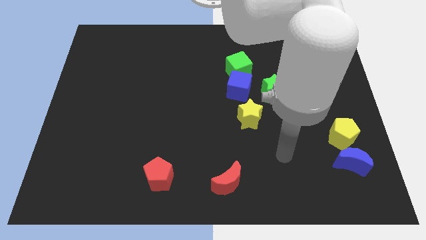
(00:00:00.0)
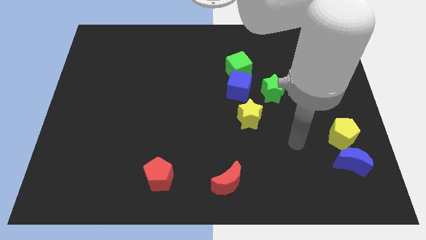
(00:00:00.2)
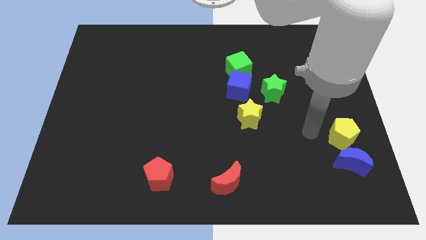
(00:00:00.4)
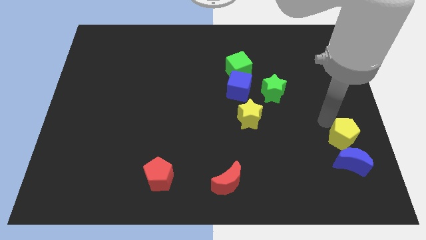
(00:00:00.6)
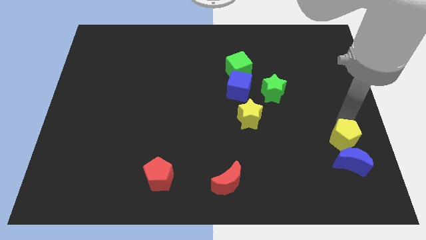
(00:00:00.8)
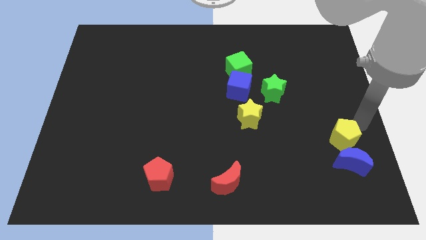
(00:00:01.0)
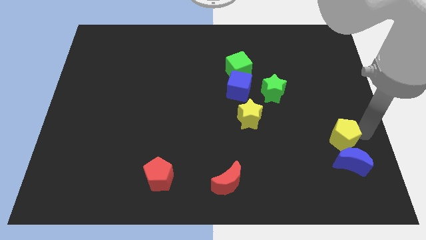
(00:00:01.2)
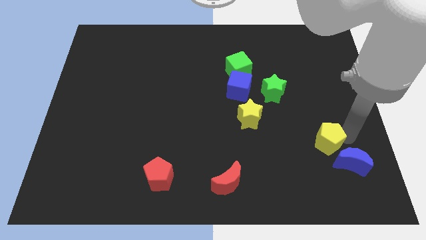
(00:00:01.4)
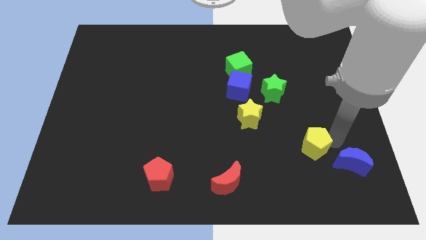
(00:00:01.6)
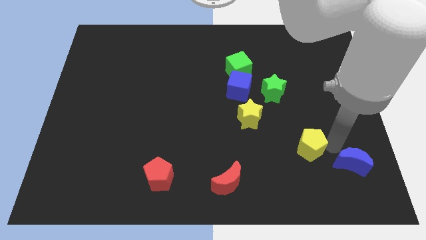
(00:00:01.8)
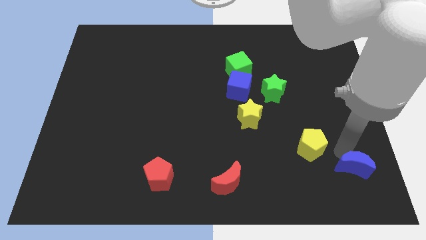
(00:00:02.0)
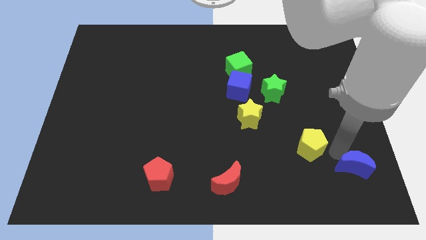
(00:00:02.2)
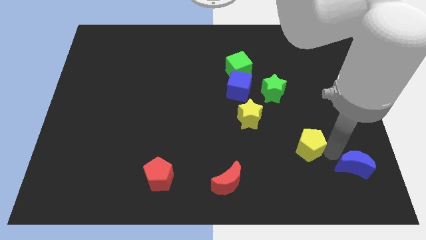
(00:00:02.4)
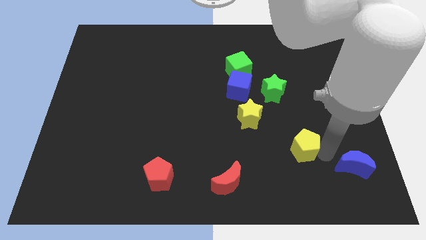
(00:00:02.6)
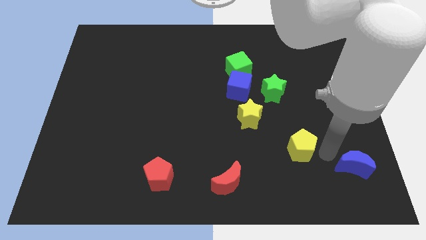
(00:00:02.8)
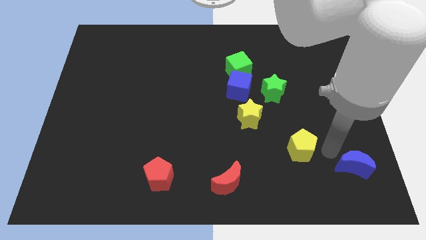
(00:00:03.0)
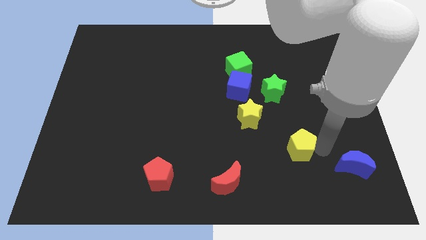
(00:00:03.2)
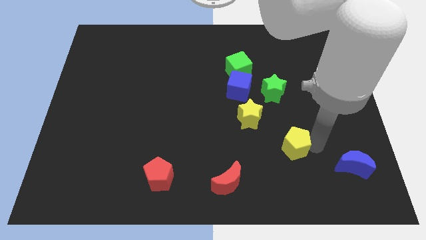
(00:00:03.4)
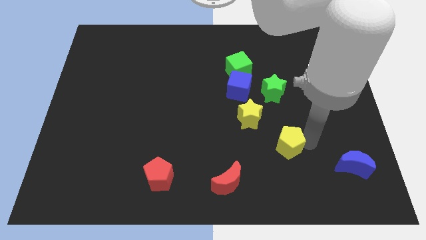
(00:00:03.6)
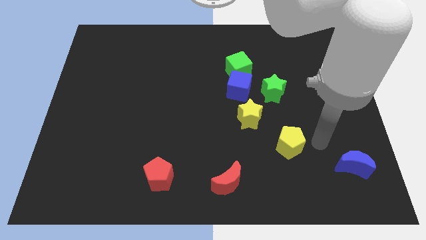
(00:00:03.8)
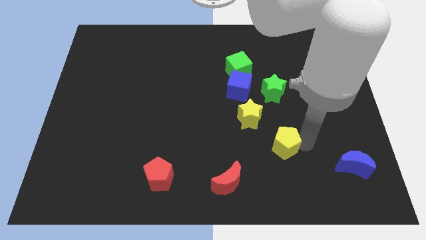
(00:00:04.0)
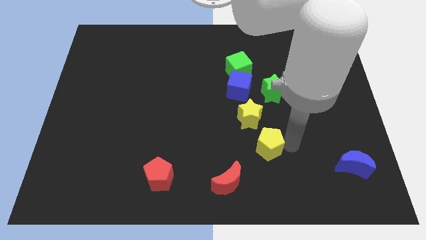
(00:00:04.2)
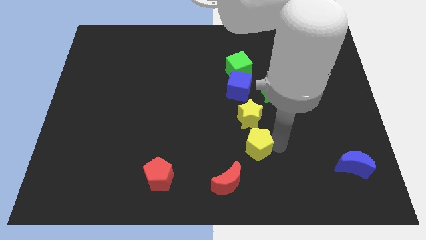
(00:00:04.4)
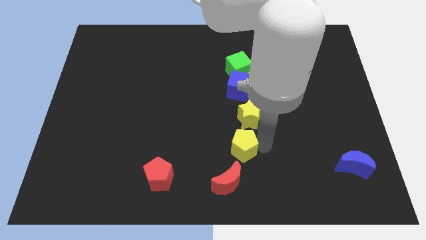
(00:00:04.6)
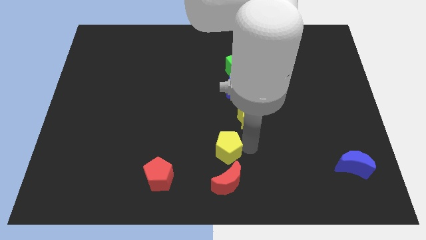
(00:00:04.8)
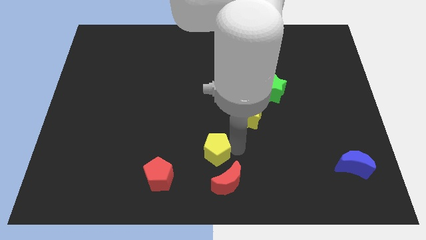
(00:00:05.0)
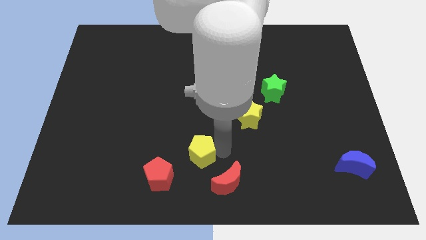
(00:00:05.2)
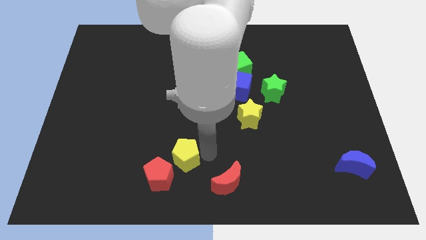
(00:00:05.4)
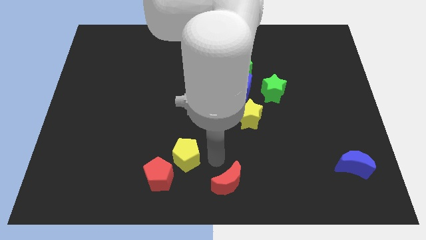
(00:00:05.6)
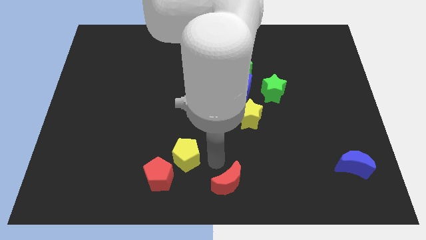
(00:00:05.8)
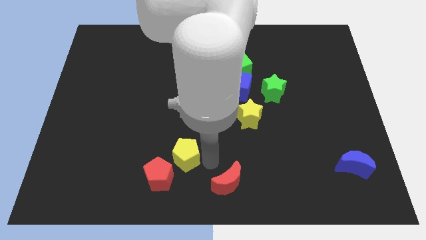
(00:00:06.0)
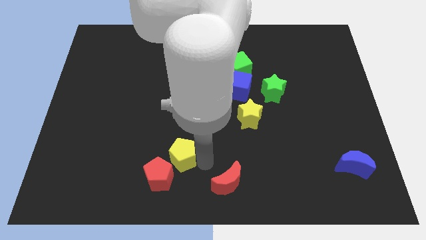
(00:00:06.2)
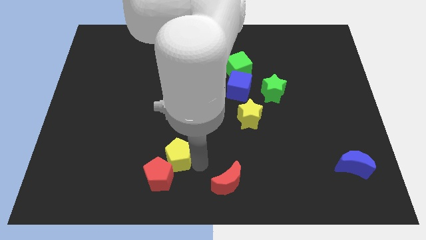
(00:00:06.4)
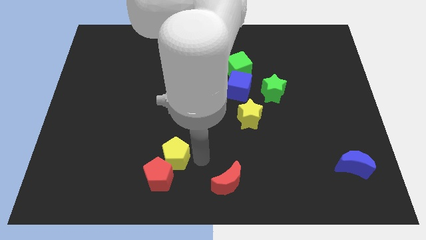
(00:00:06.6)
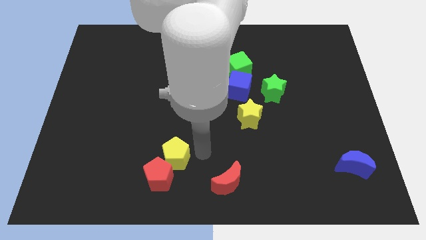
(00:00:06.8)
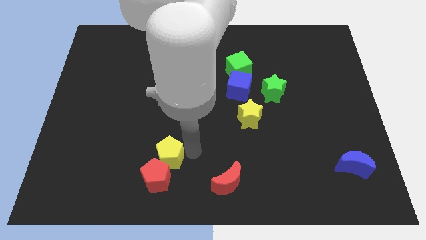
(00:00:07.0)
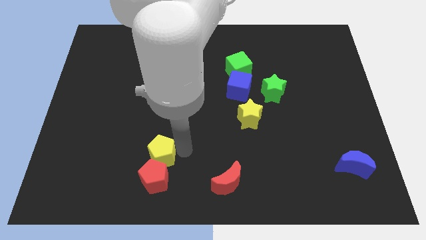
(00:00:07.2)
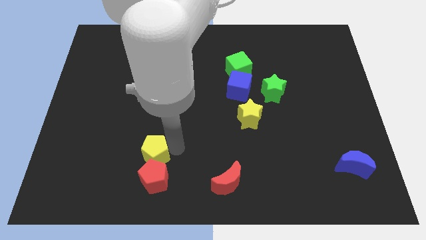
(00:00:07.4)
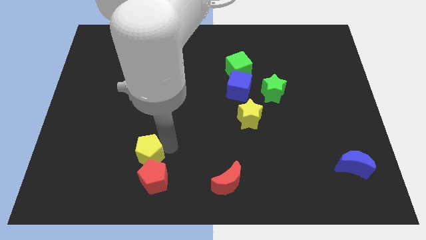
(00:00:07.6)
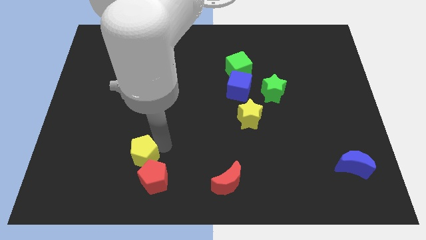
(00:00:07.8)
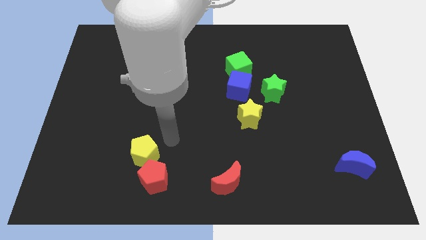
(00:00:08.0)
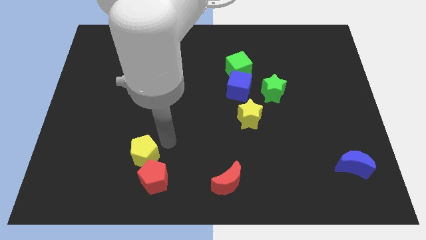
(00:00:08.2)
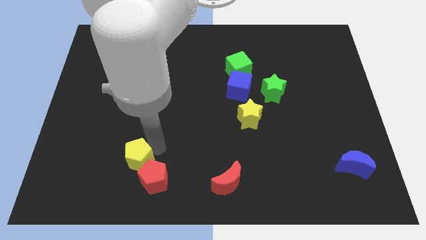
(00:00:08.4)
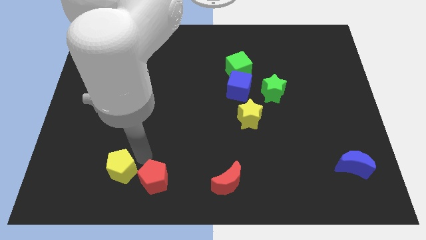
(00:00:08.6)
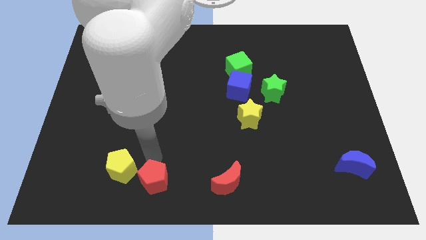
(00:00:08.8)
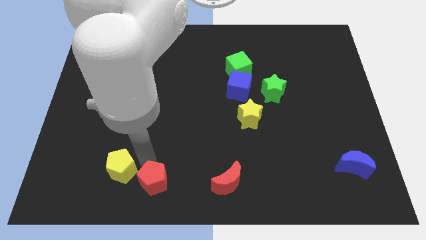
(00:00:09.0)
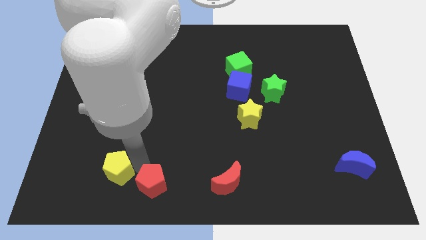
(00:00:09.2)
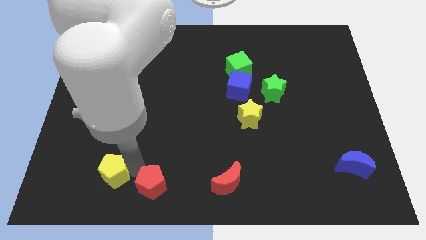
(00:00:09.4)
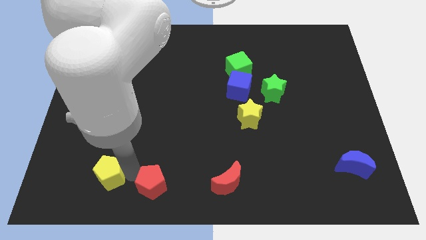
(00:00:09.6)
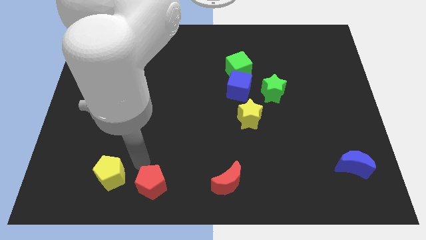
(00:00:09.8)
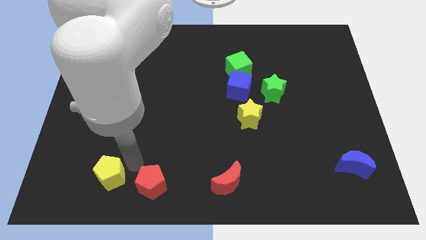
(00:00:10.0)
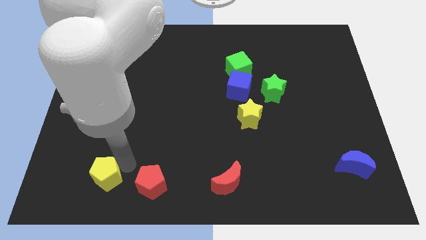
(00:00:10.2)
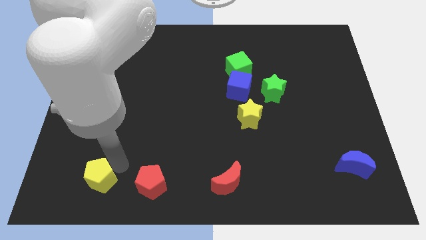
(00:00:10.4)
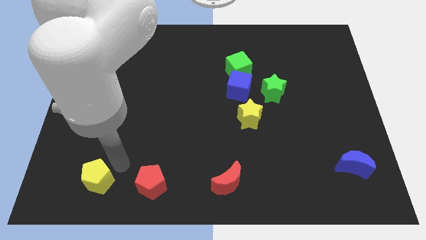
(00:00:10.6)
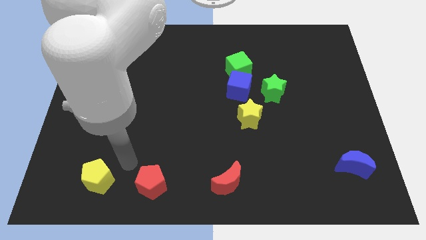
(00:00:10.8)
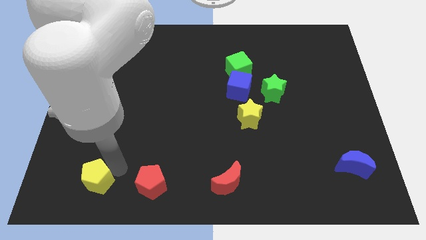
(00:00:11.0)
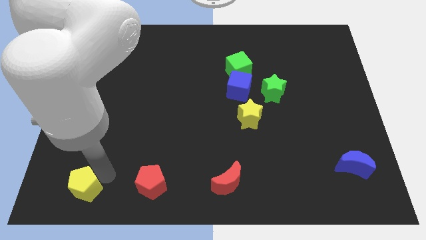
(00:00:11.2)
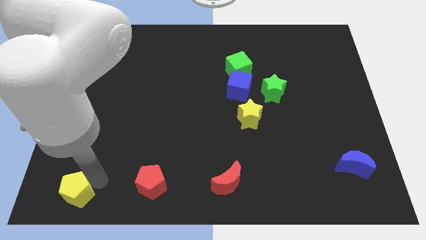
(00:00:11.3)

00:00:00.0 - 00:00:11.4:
move the yellow pentagon to the bottom left of the board

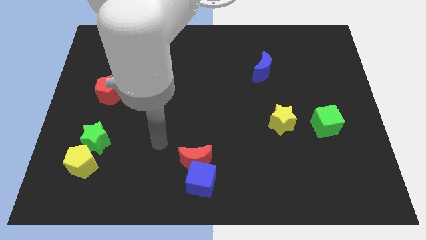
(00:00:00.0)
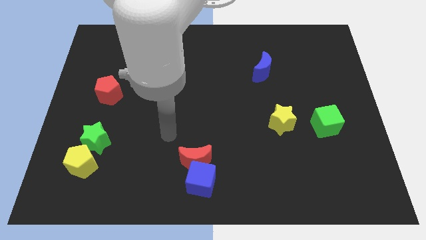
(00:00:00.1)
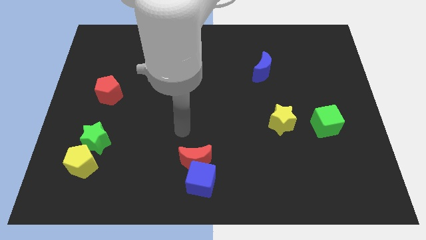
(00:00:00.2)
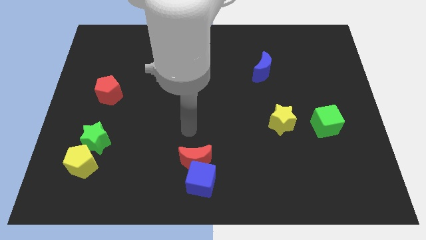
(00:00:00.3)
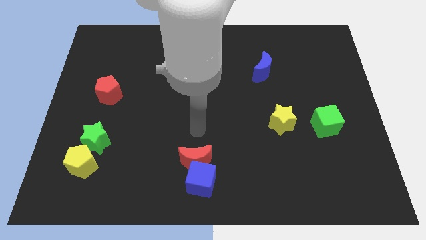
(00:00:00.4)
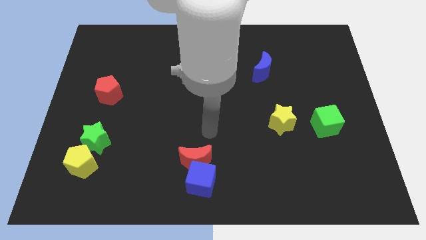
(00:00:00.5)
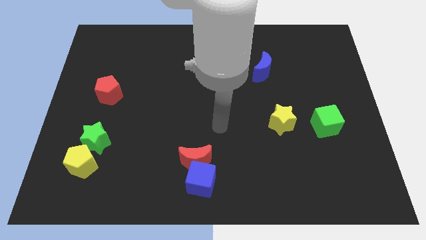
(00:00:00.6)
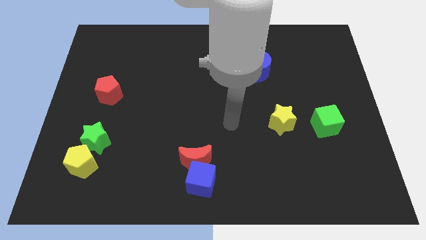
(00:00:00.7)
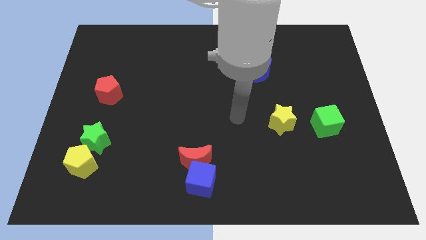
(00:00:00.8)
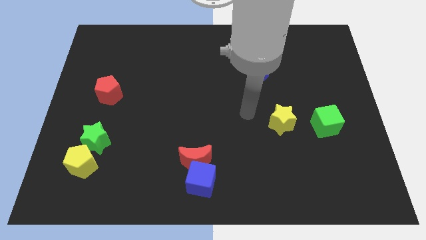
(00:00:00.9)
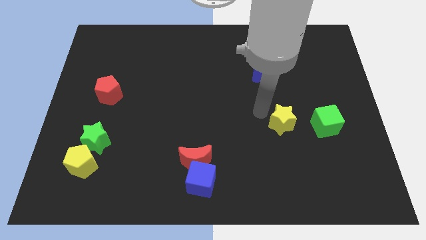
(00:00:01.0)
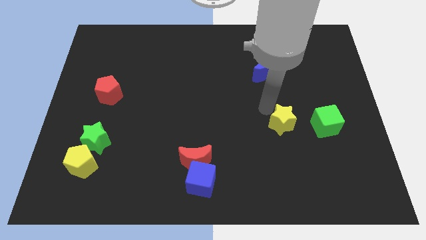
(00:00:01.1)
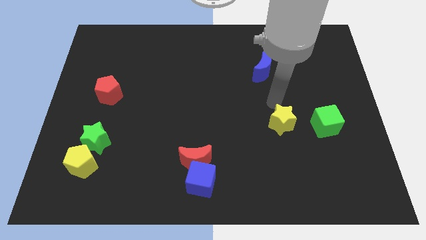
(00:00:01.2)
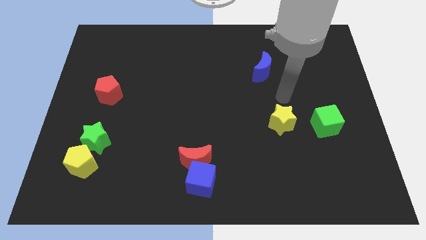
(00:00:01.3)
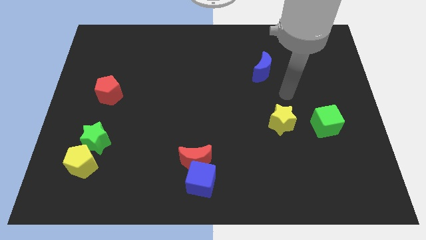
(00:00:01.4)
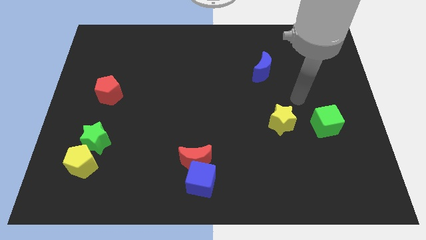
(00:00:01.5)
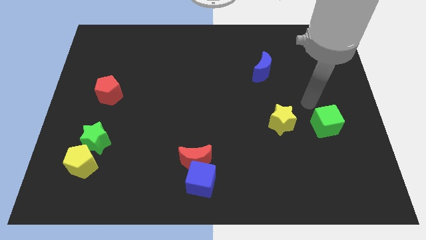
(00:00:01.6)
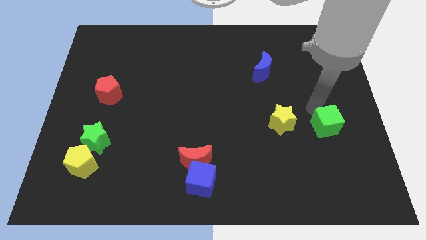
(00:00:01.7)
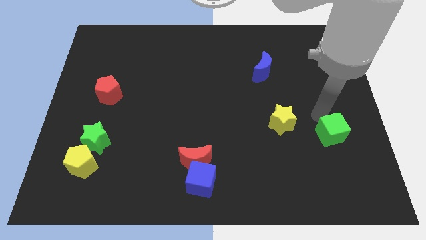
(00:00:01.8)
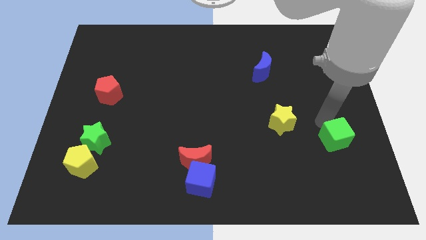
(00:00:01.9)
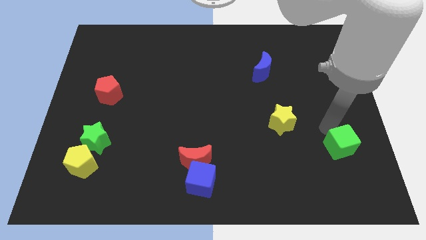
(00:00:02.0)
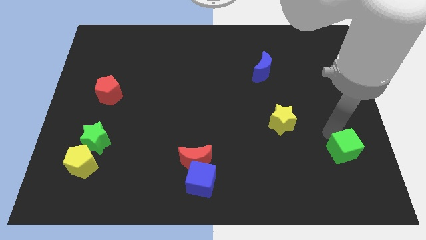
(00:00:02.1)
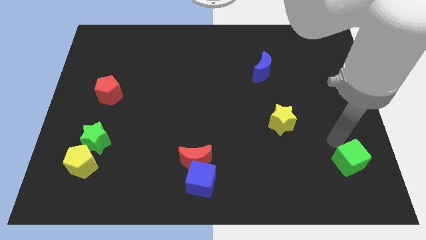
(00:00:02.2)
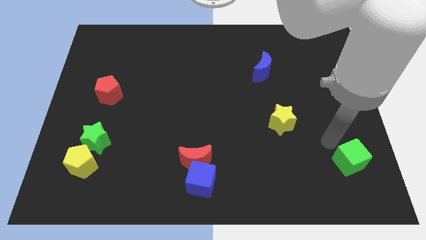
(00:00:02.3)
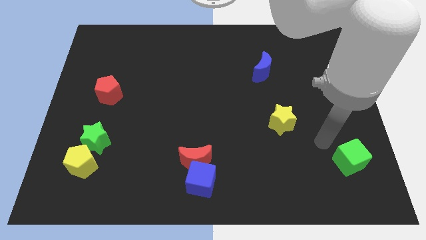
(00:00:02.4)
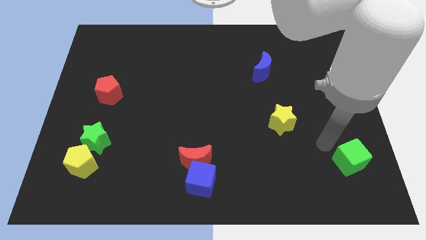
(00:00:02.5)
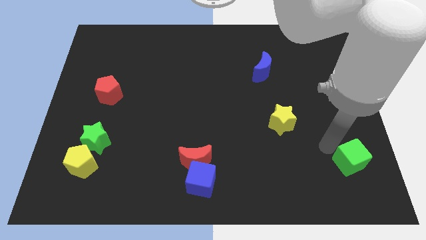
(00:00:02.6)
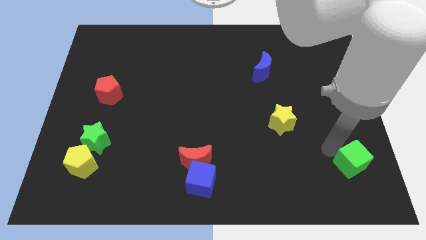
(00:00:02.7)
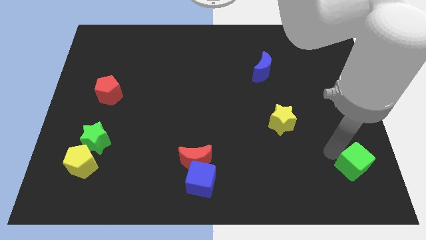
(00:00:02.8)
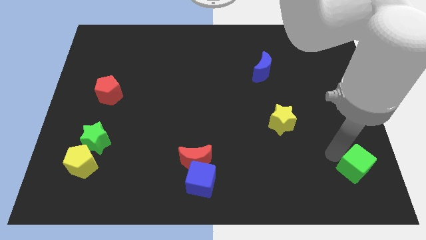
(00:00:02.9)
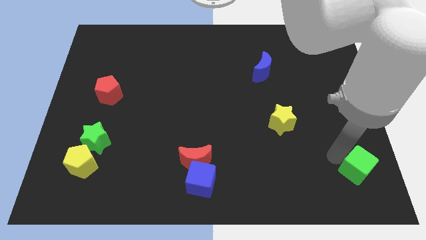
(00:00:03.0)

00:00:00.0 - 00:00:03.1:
slide the green cube to the bottom right
